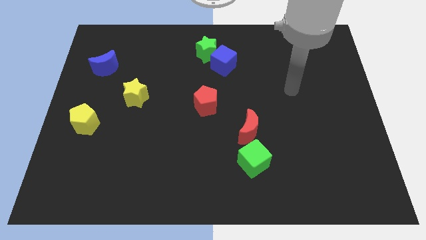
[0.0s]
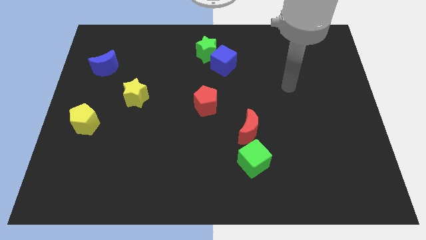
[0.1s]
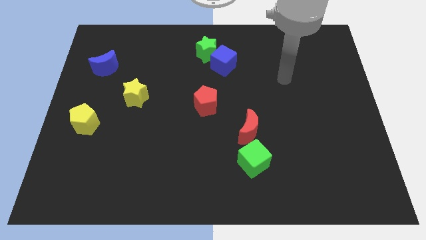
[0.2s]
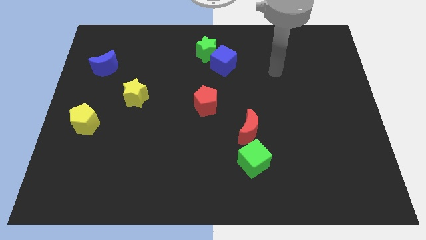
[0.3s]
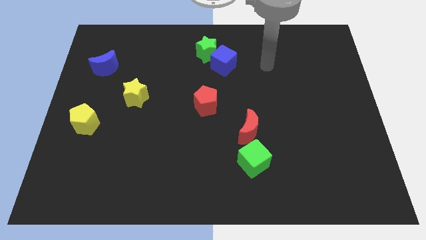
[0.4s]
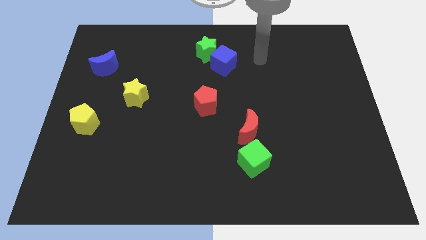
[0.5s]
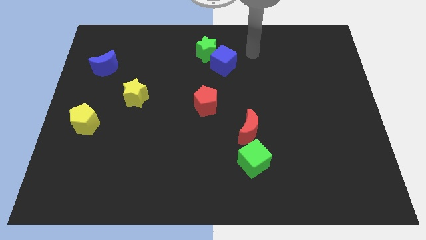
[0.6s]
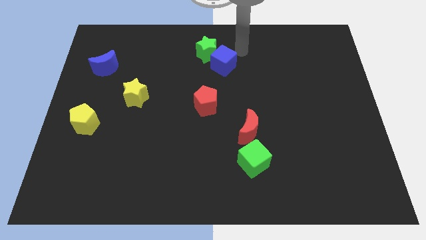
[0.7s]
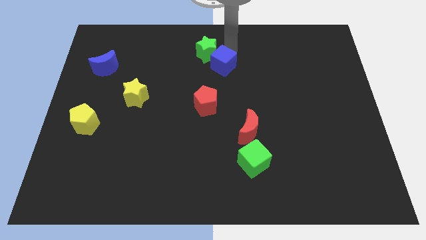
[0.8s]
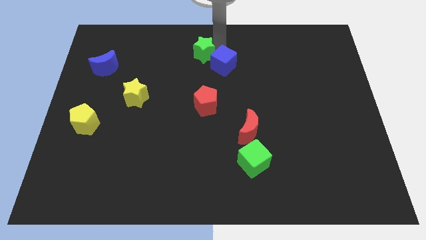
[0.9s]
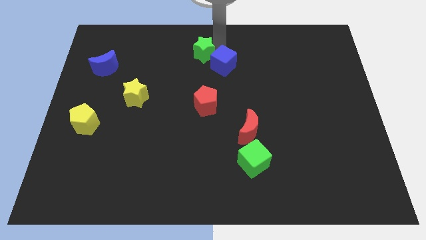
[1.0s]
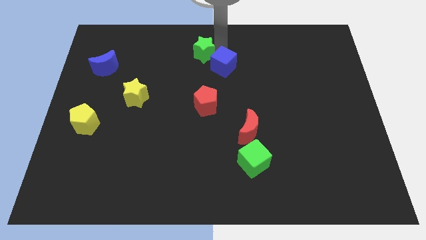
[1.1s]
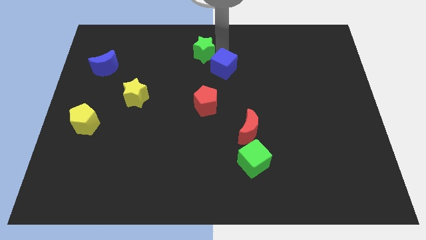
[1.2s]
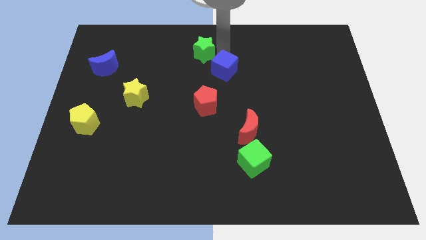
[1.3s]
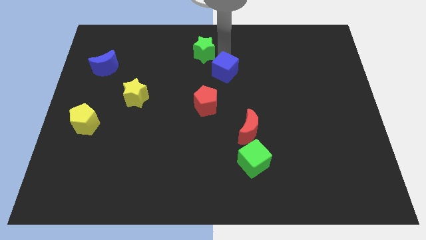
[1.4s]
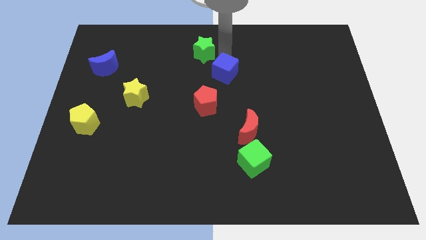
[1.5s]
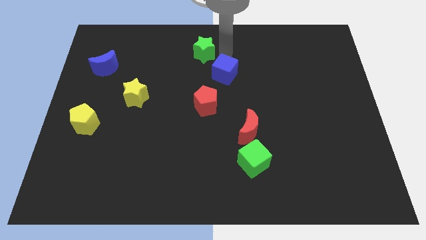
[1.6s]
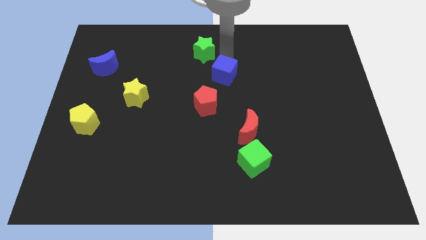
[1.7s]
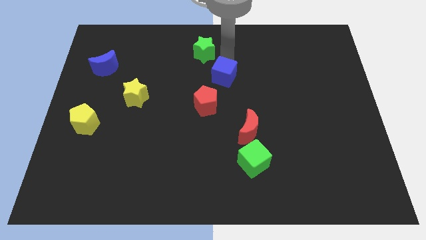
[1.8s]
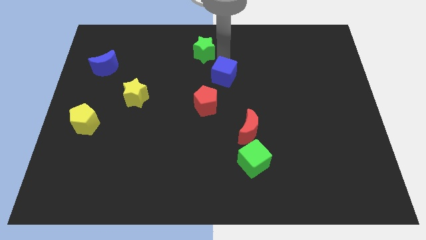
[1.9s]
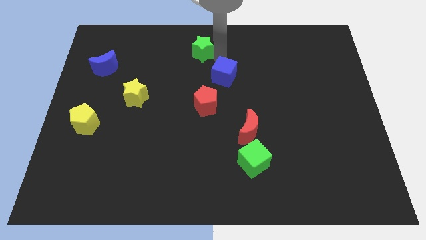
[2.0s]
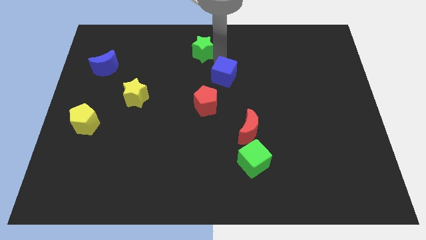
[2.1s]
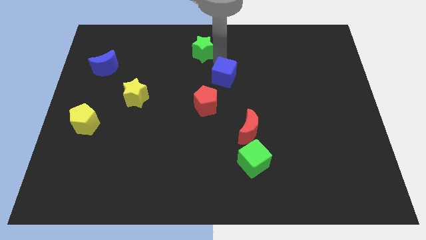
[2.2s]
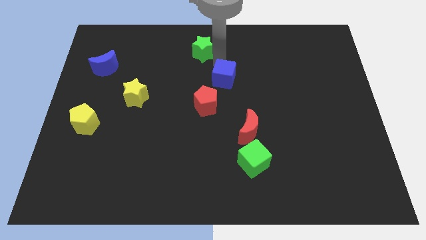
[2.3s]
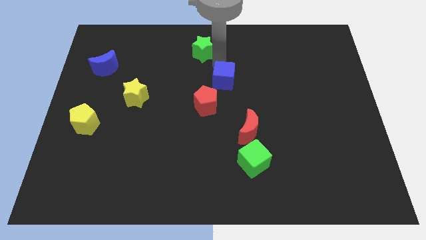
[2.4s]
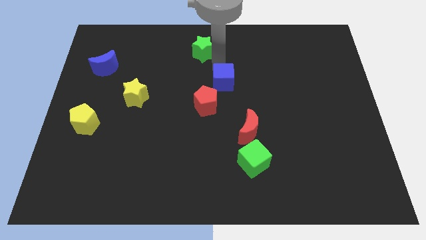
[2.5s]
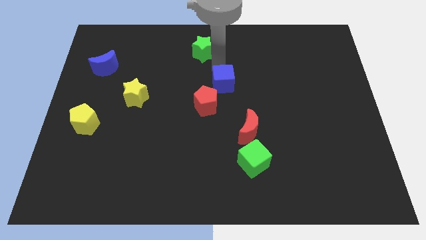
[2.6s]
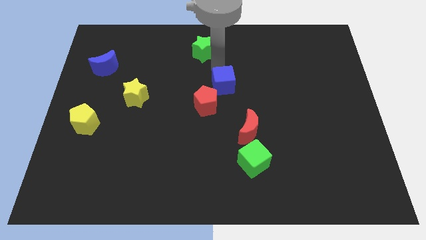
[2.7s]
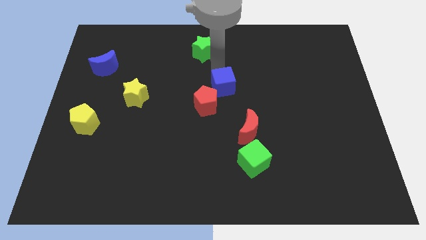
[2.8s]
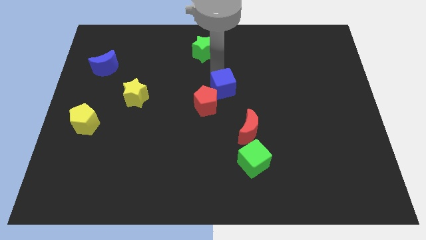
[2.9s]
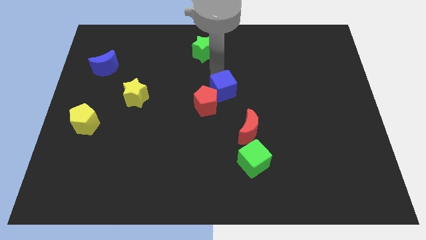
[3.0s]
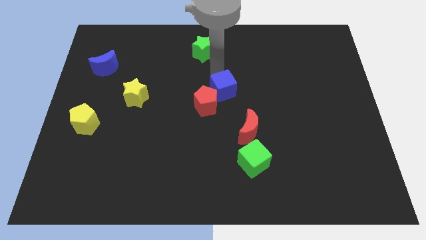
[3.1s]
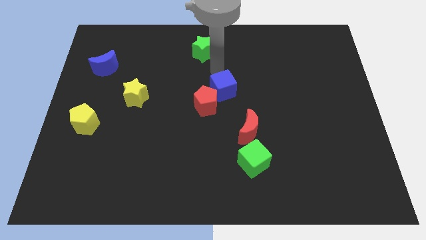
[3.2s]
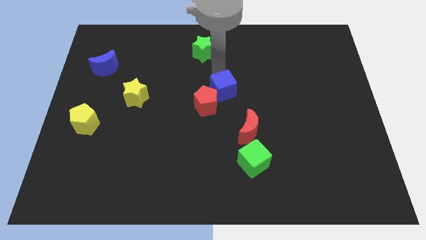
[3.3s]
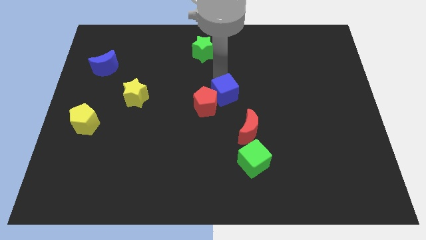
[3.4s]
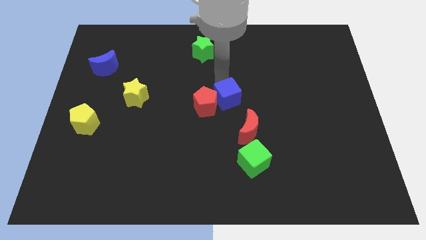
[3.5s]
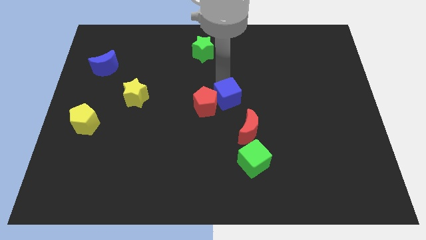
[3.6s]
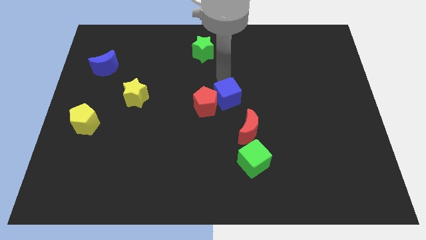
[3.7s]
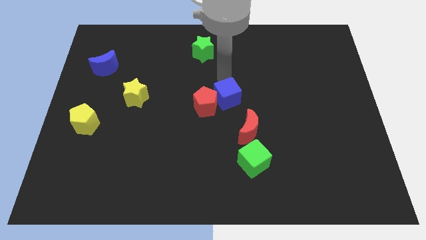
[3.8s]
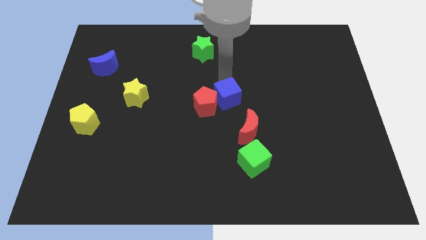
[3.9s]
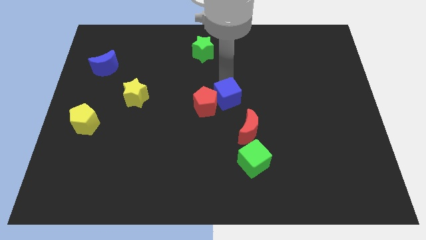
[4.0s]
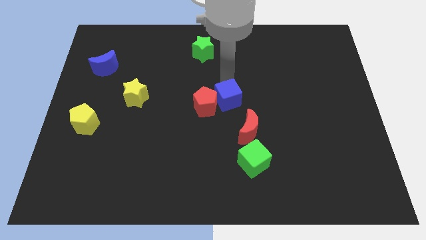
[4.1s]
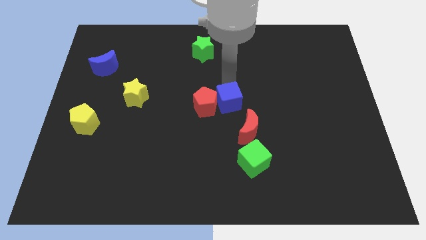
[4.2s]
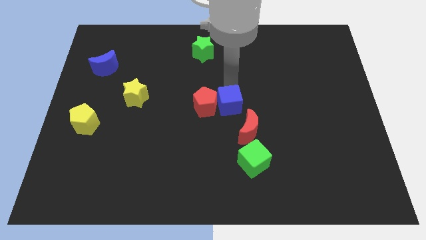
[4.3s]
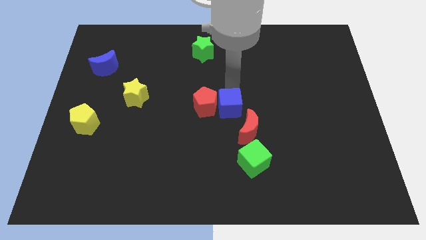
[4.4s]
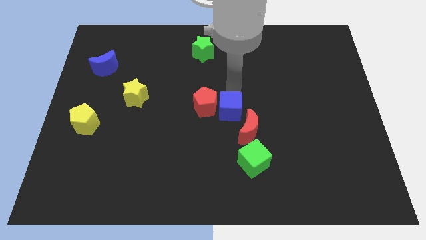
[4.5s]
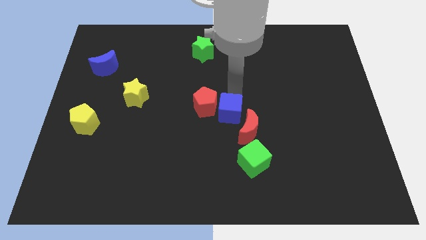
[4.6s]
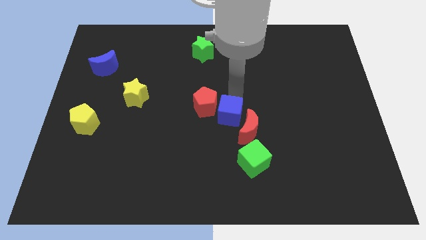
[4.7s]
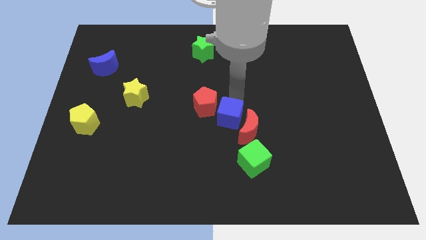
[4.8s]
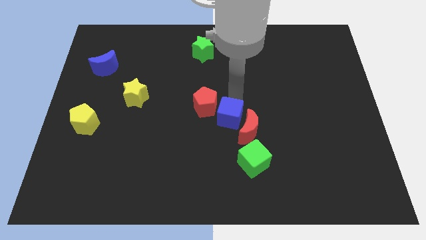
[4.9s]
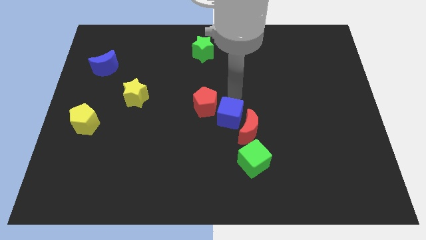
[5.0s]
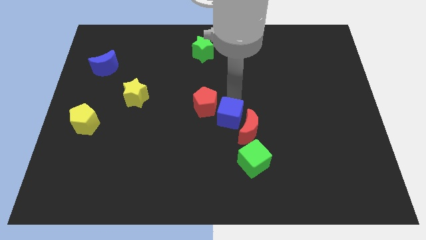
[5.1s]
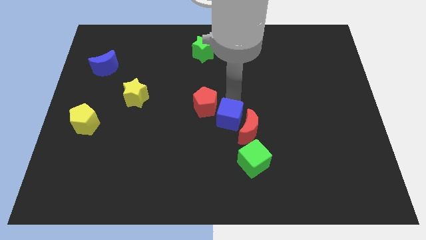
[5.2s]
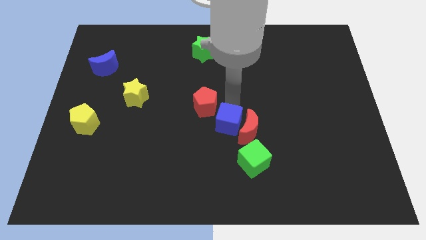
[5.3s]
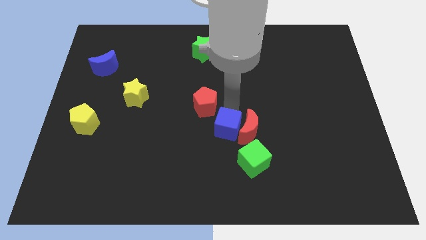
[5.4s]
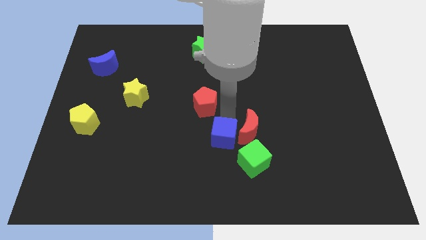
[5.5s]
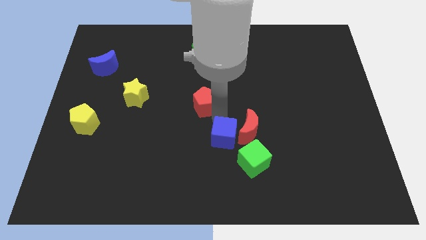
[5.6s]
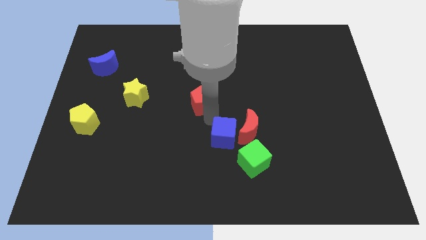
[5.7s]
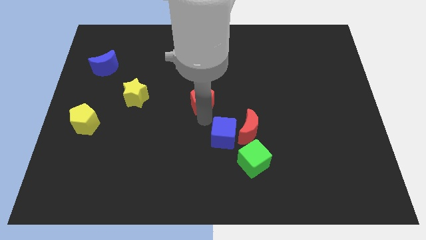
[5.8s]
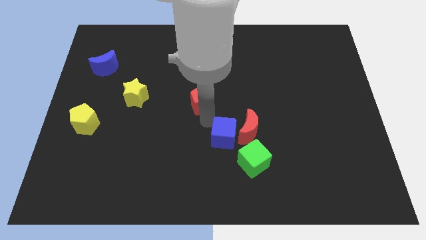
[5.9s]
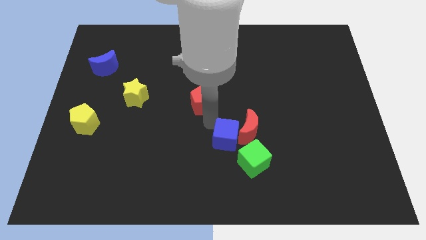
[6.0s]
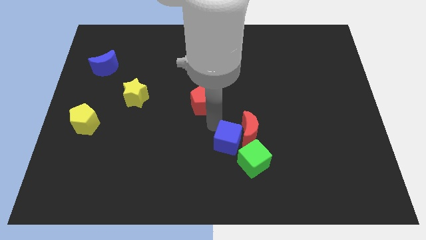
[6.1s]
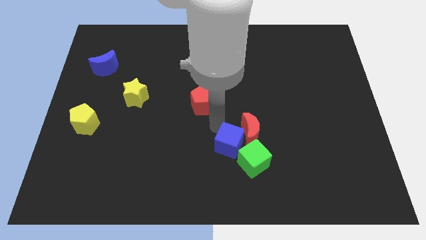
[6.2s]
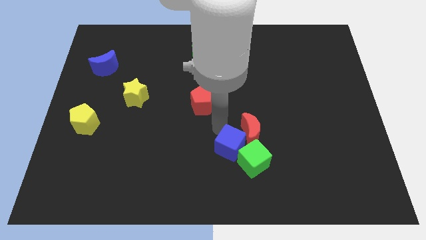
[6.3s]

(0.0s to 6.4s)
move the blue cube next to the green cube
